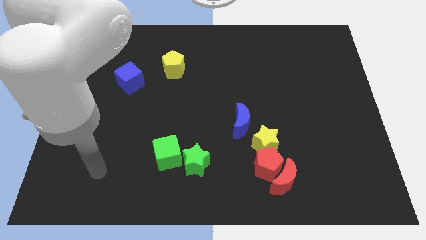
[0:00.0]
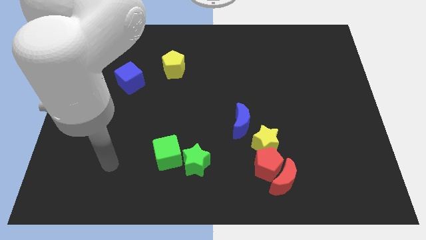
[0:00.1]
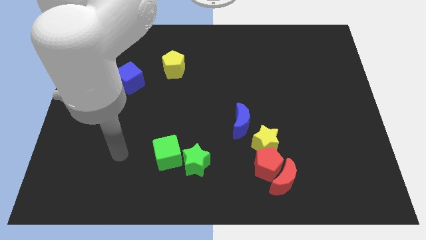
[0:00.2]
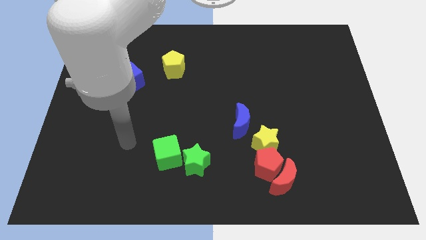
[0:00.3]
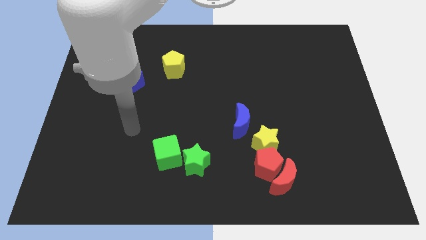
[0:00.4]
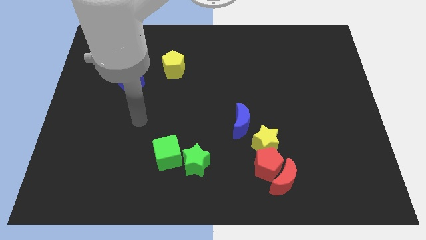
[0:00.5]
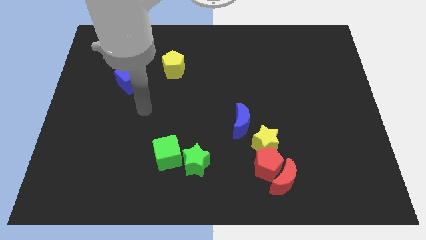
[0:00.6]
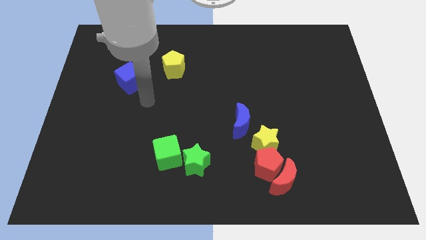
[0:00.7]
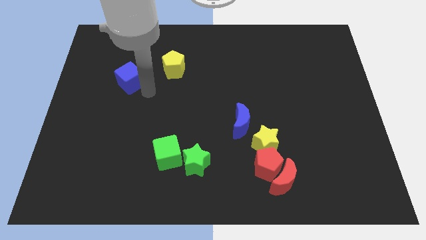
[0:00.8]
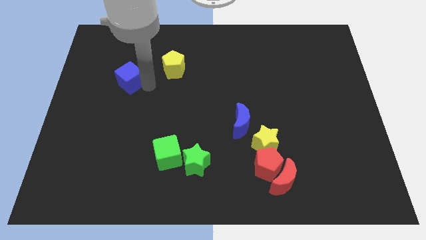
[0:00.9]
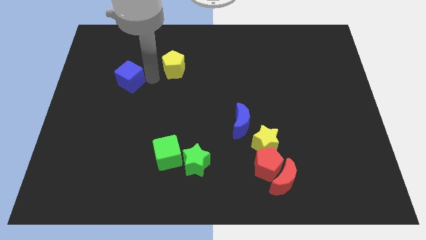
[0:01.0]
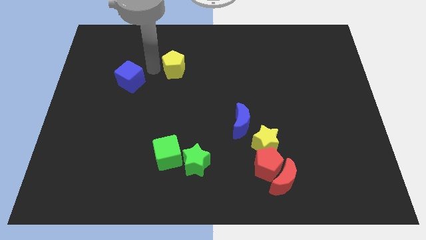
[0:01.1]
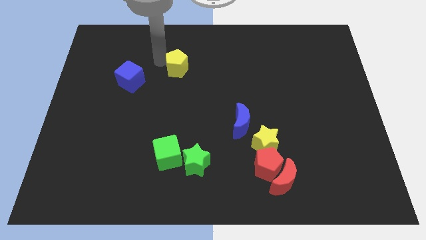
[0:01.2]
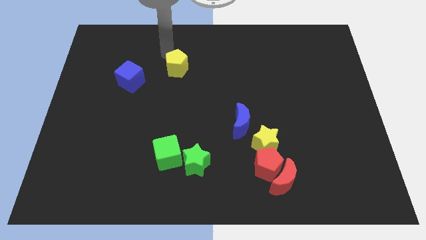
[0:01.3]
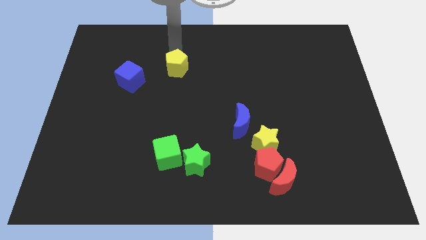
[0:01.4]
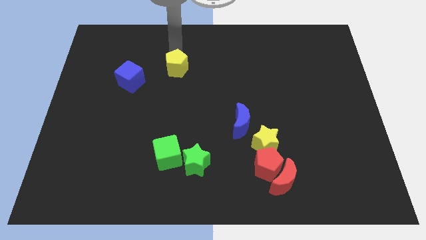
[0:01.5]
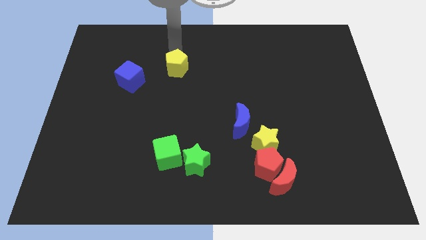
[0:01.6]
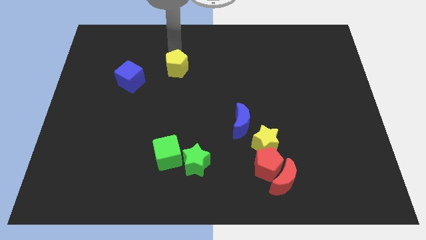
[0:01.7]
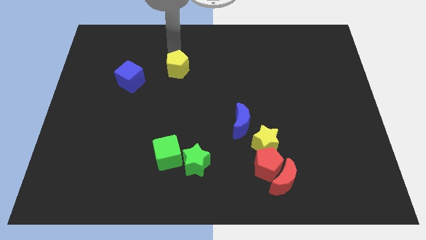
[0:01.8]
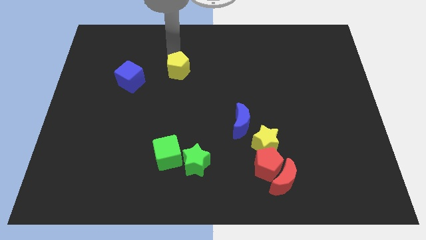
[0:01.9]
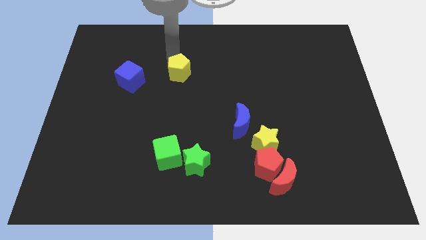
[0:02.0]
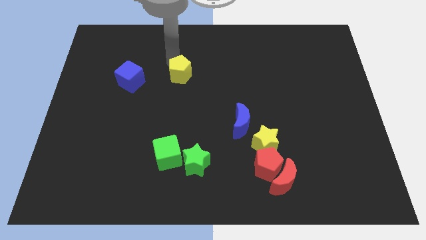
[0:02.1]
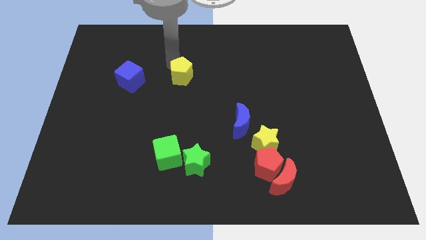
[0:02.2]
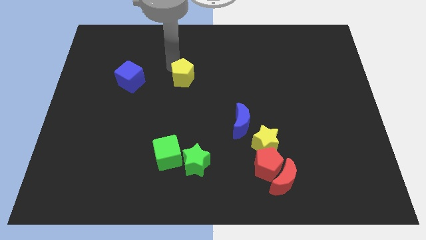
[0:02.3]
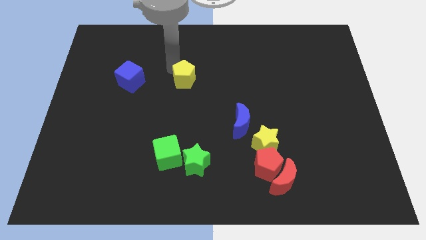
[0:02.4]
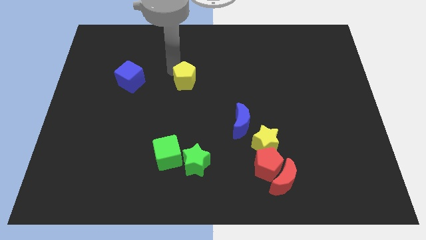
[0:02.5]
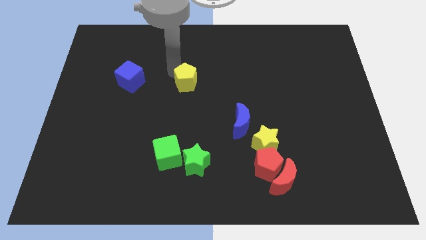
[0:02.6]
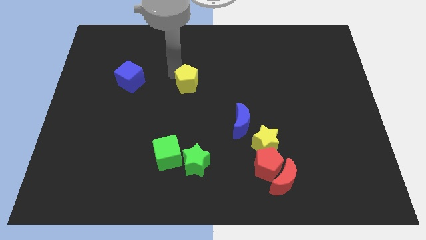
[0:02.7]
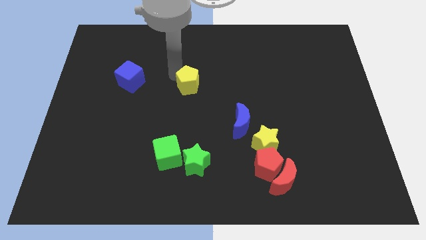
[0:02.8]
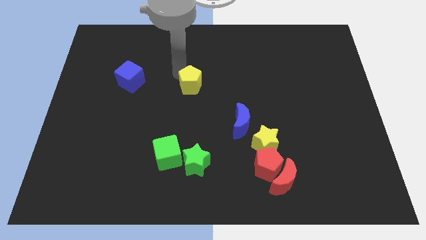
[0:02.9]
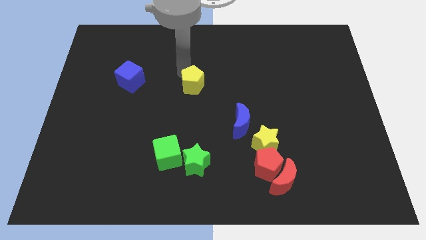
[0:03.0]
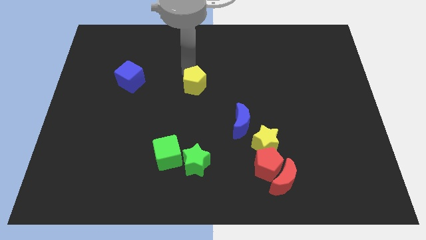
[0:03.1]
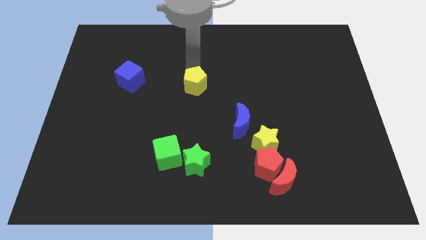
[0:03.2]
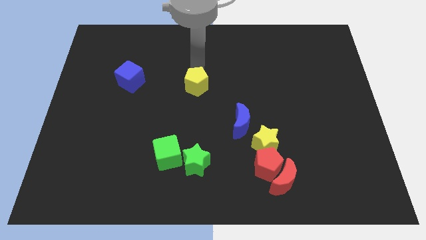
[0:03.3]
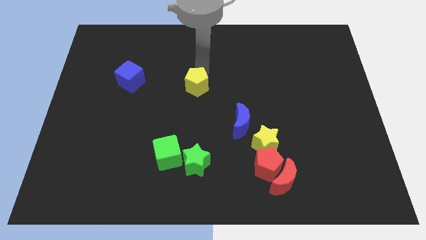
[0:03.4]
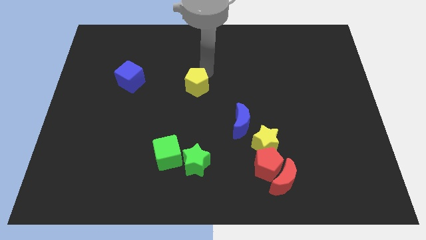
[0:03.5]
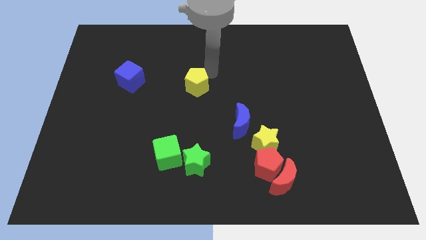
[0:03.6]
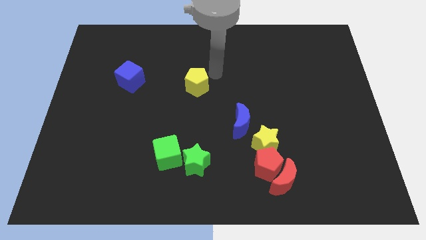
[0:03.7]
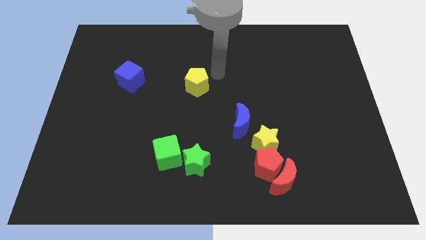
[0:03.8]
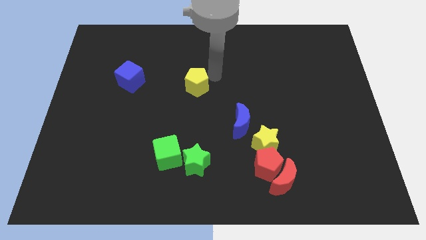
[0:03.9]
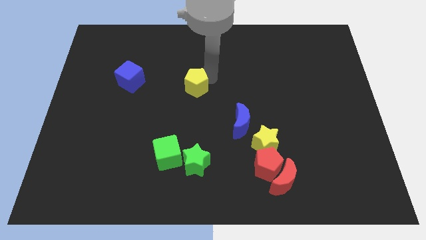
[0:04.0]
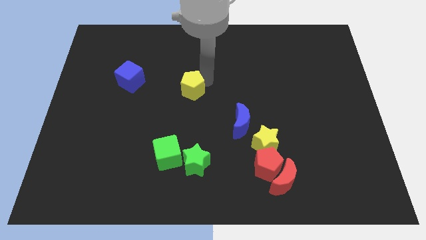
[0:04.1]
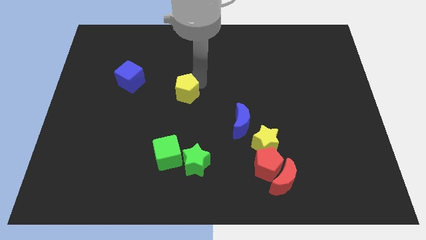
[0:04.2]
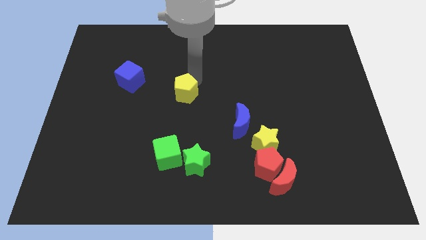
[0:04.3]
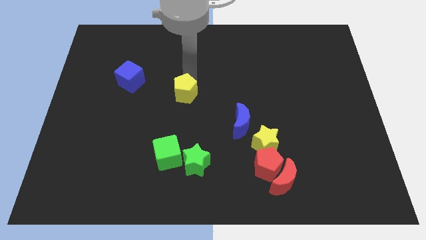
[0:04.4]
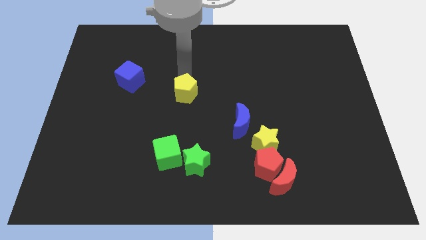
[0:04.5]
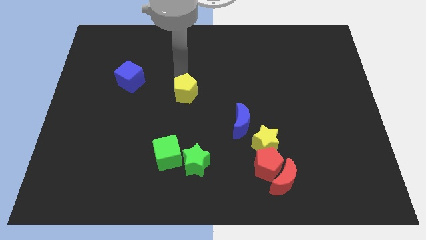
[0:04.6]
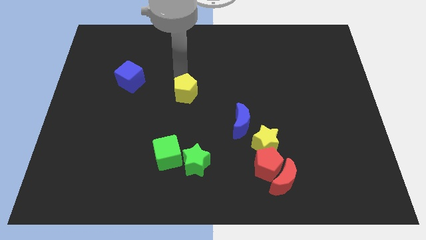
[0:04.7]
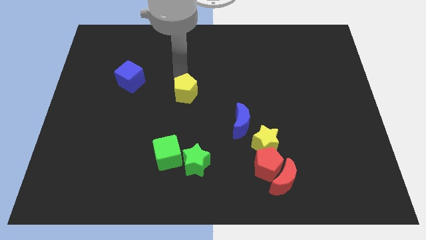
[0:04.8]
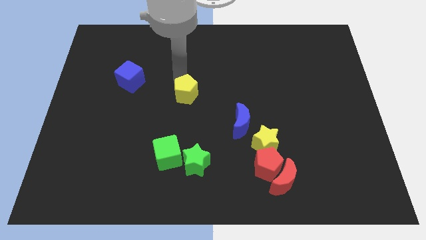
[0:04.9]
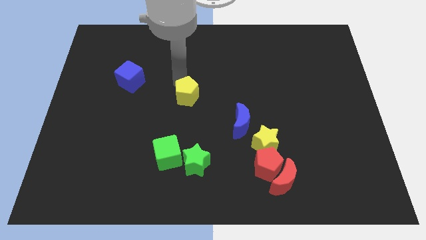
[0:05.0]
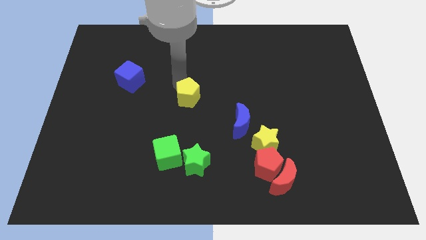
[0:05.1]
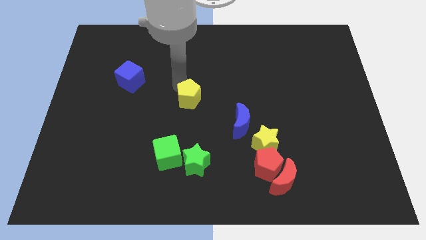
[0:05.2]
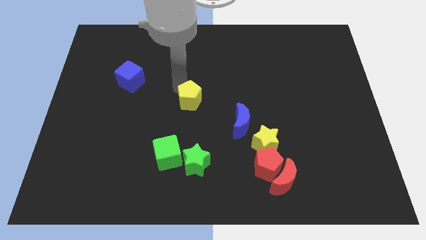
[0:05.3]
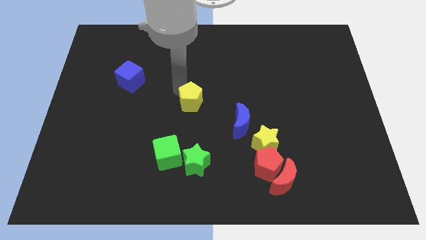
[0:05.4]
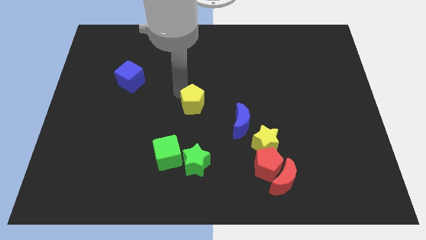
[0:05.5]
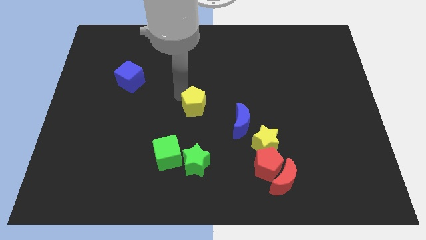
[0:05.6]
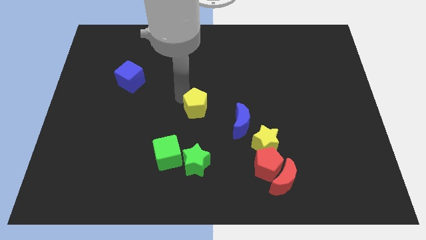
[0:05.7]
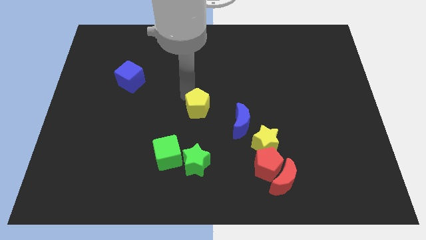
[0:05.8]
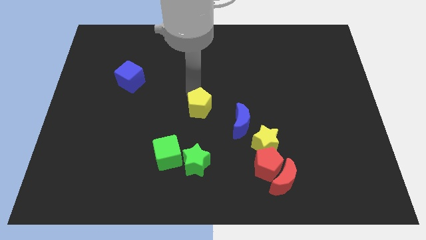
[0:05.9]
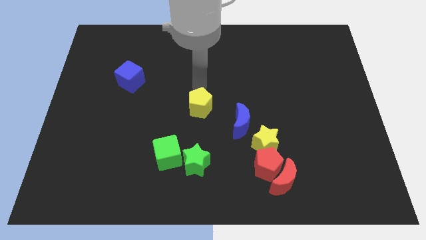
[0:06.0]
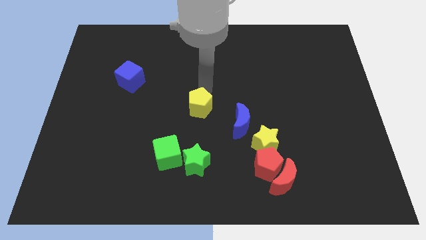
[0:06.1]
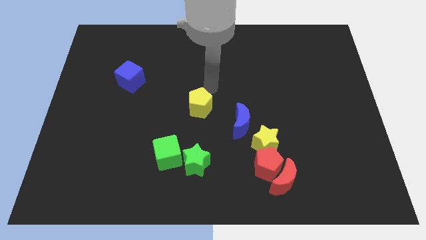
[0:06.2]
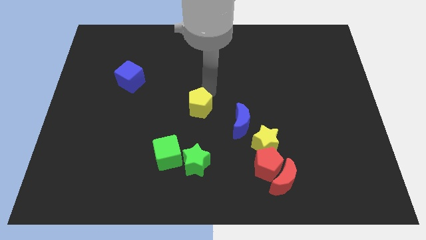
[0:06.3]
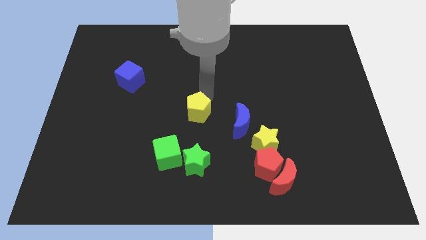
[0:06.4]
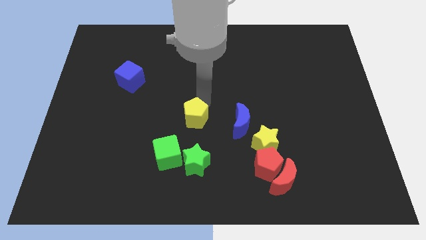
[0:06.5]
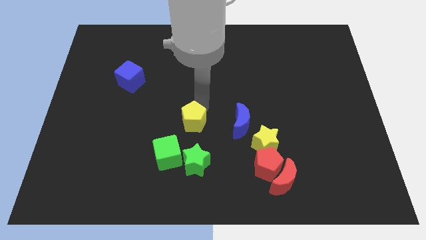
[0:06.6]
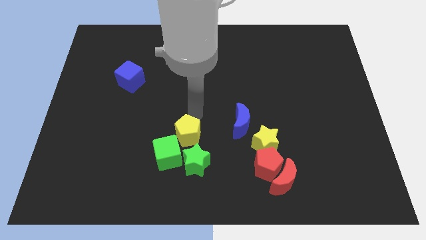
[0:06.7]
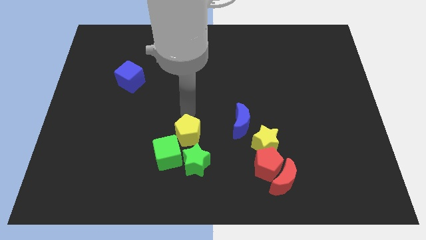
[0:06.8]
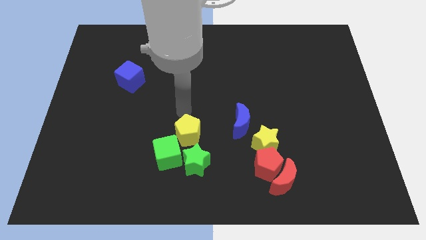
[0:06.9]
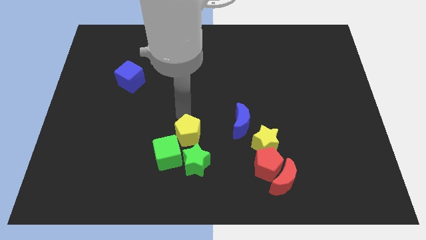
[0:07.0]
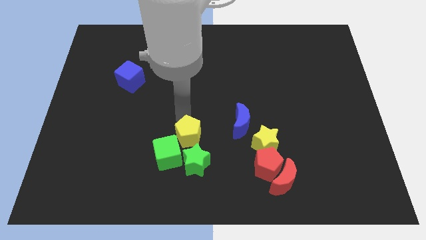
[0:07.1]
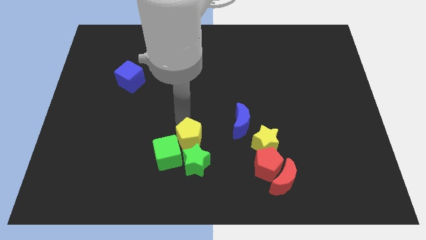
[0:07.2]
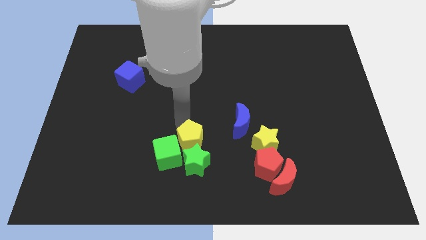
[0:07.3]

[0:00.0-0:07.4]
move the yellow pentagon close to the green star

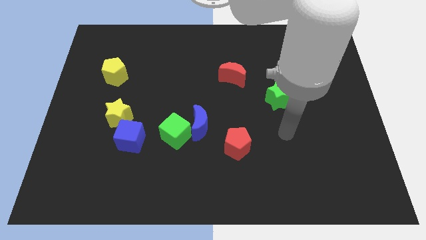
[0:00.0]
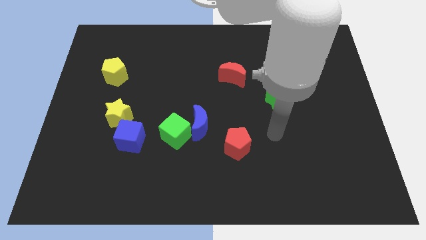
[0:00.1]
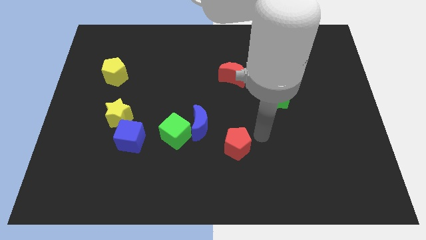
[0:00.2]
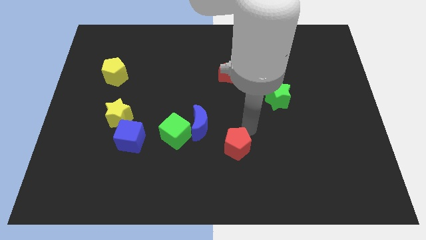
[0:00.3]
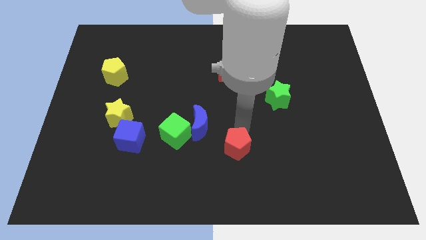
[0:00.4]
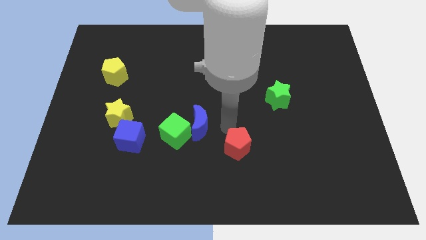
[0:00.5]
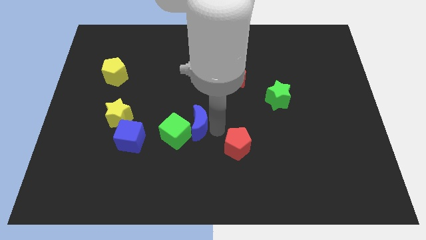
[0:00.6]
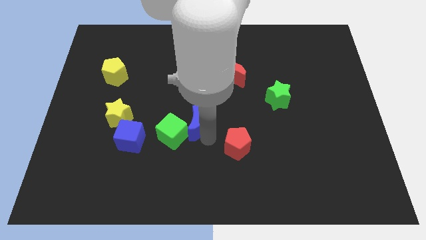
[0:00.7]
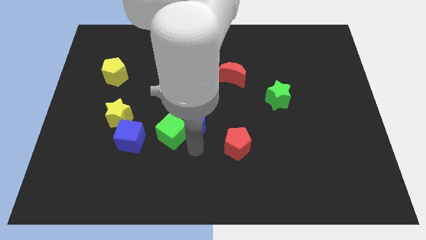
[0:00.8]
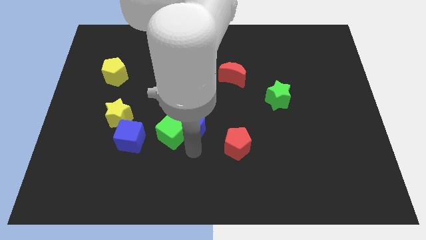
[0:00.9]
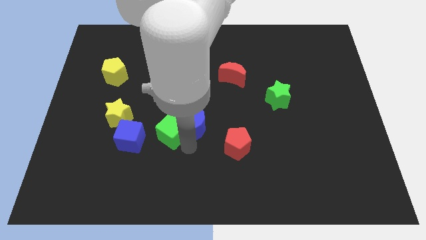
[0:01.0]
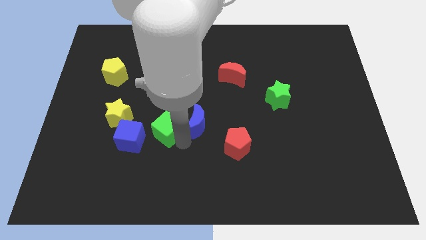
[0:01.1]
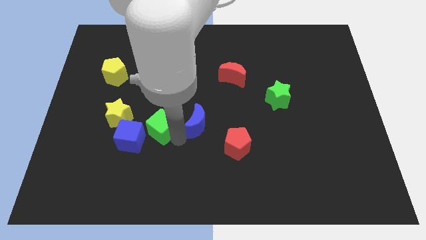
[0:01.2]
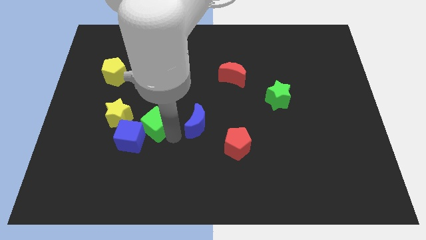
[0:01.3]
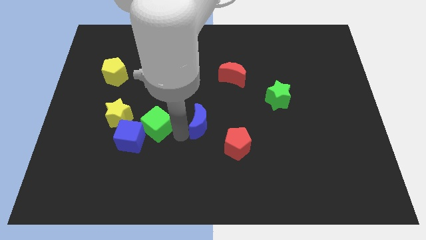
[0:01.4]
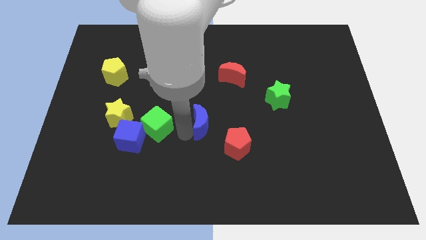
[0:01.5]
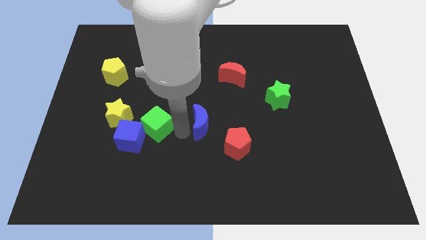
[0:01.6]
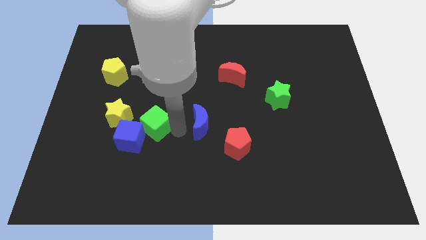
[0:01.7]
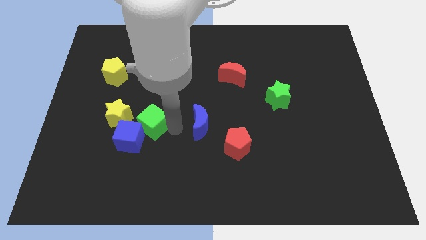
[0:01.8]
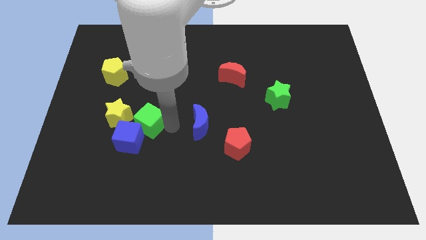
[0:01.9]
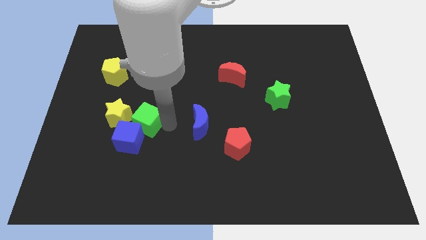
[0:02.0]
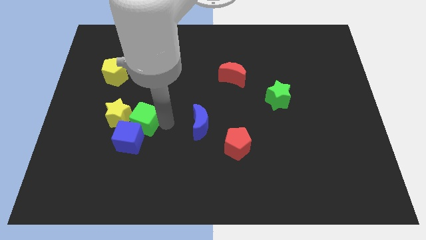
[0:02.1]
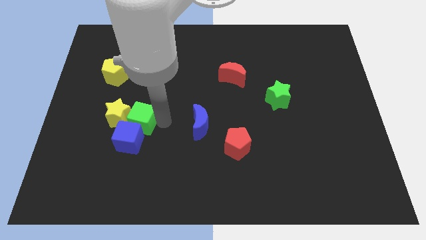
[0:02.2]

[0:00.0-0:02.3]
put the green cube close to the yellow star
